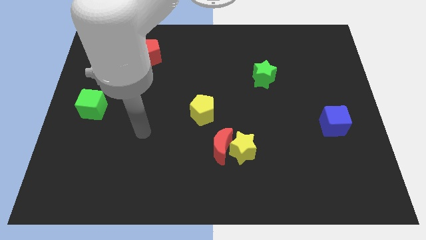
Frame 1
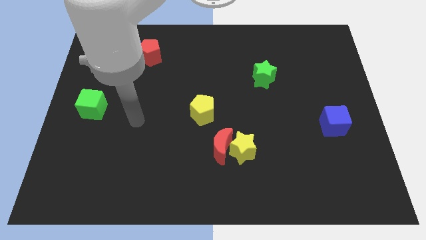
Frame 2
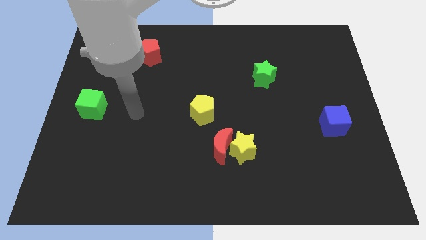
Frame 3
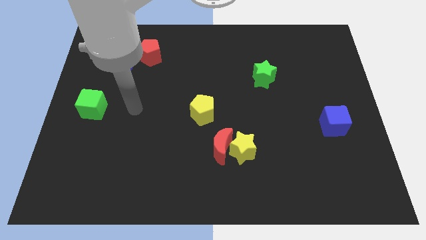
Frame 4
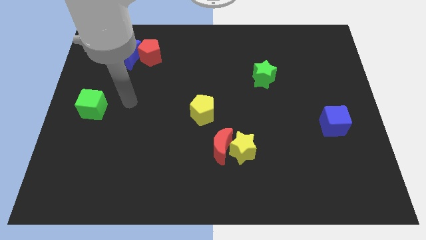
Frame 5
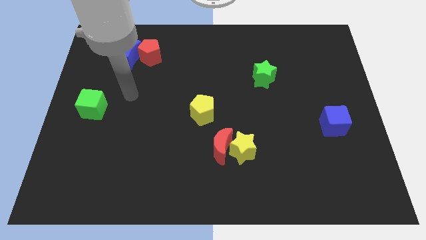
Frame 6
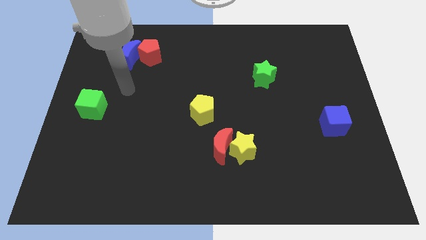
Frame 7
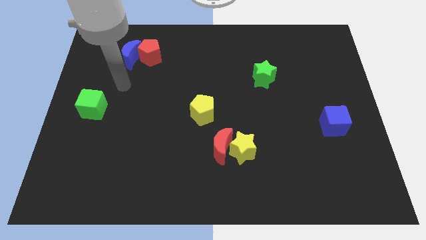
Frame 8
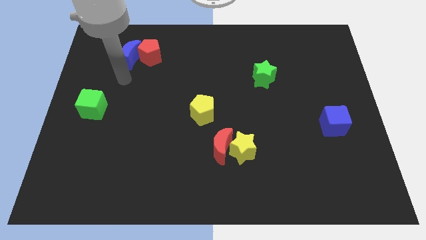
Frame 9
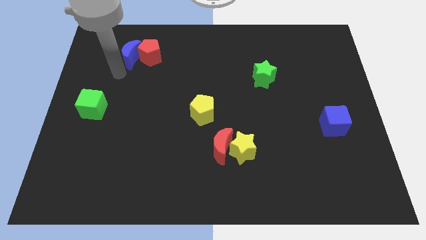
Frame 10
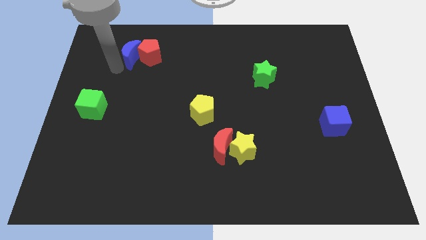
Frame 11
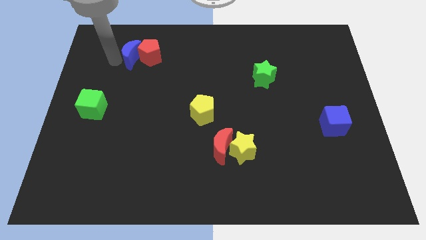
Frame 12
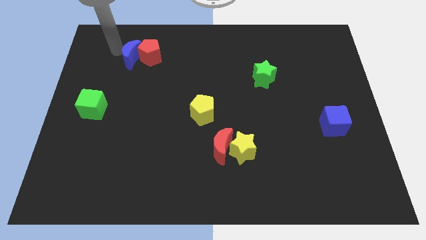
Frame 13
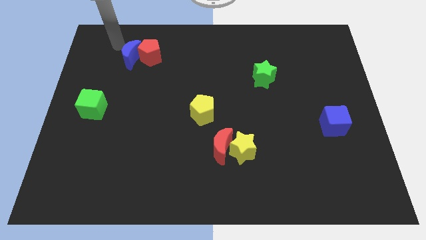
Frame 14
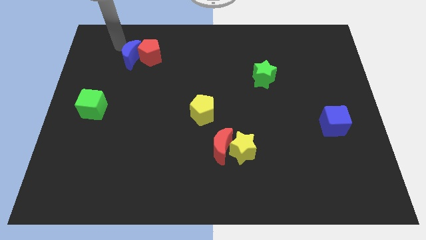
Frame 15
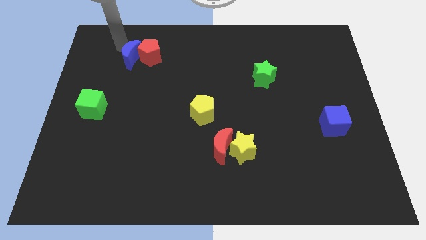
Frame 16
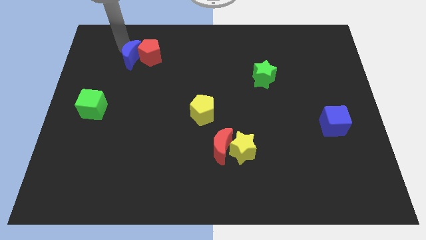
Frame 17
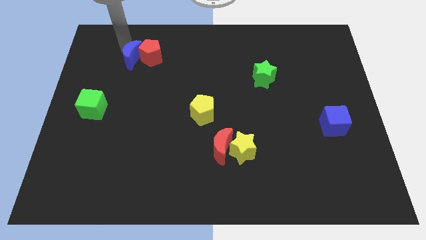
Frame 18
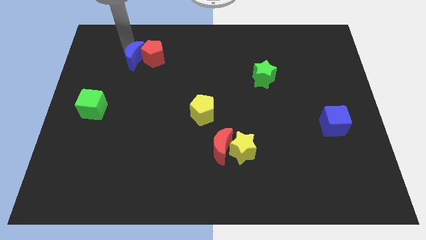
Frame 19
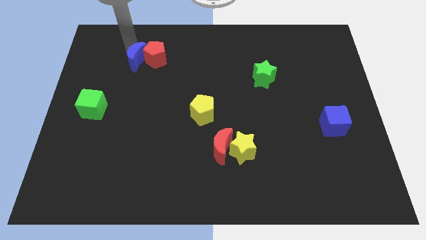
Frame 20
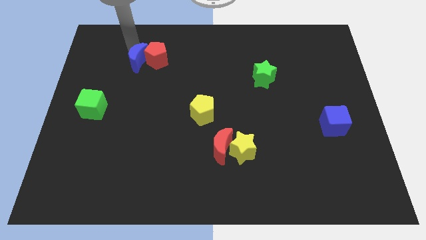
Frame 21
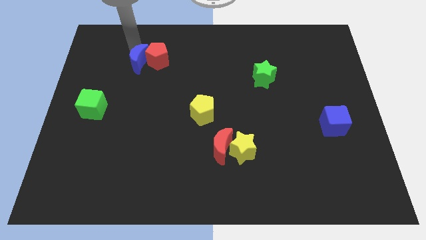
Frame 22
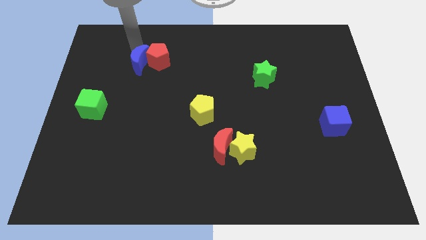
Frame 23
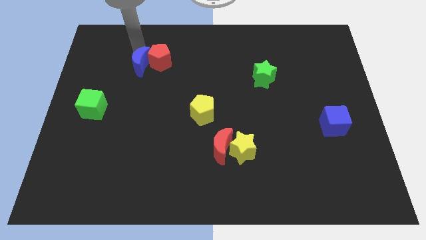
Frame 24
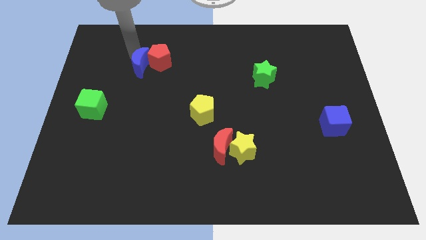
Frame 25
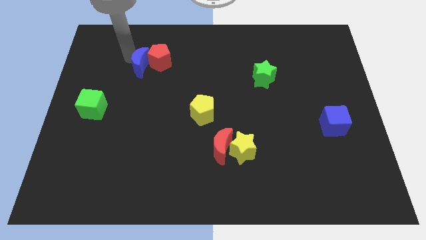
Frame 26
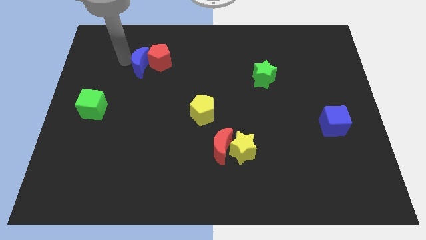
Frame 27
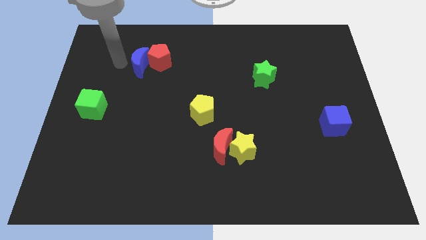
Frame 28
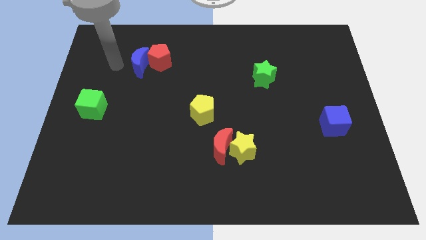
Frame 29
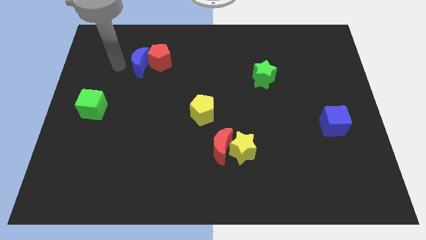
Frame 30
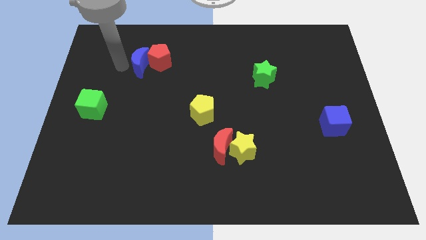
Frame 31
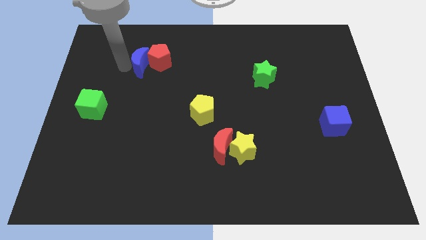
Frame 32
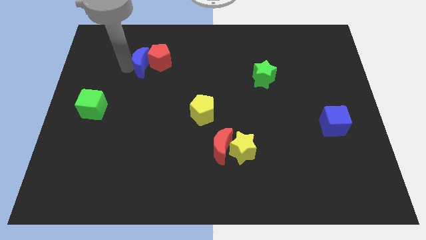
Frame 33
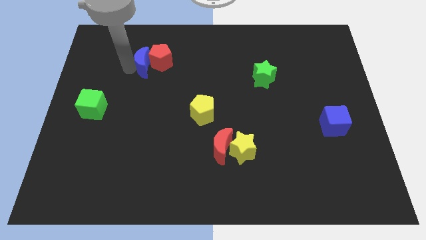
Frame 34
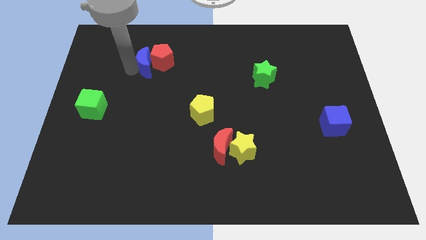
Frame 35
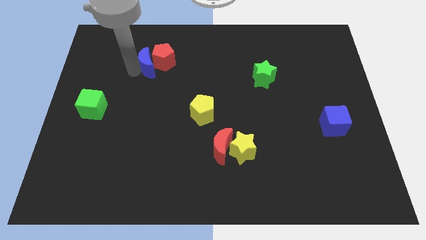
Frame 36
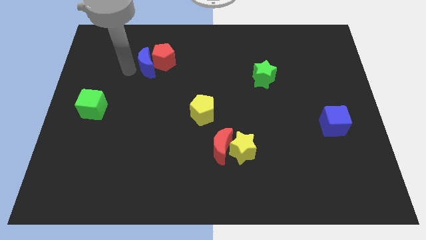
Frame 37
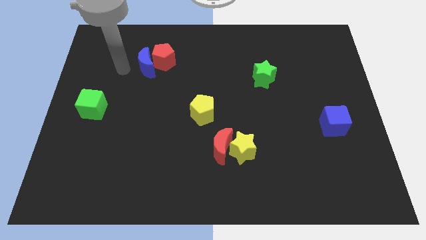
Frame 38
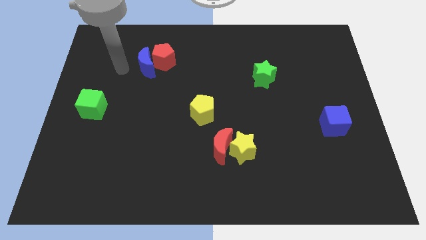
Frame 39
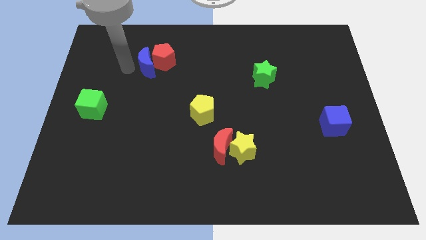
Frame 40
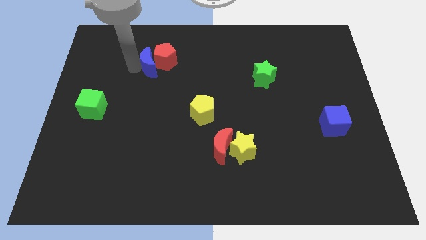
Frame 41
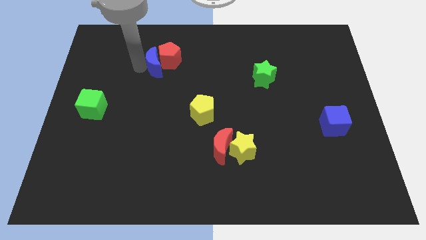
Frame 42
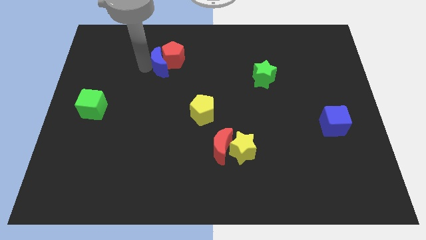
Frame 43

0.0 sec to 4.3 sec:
slightly slide the blue moon right

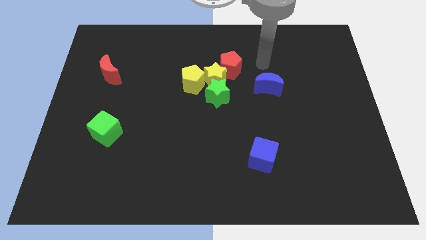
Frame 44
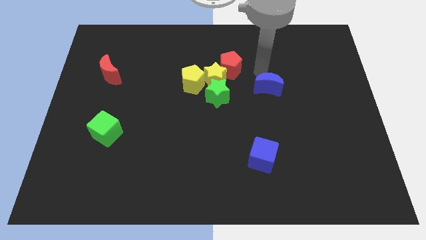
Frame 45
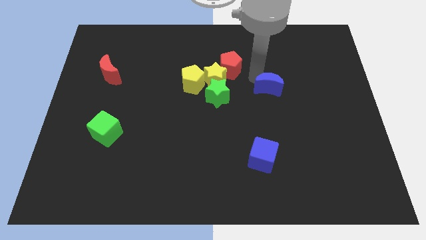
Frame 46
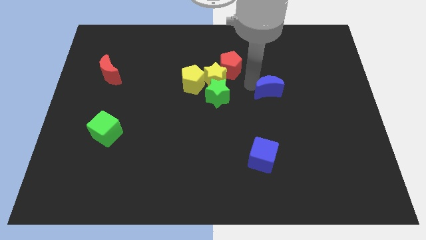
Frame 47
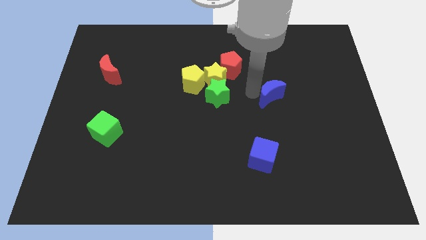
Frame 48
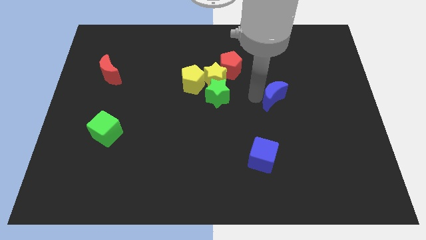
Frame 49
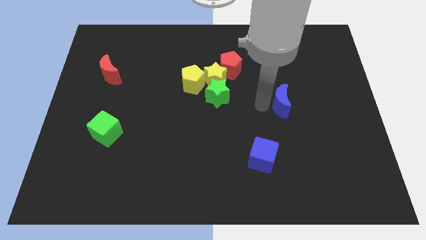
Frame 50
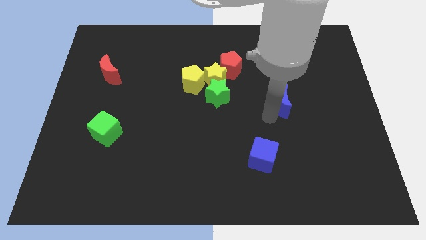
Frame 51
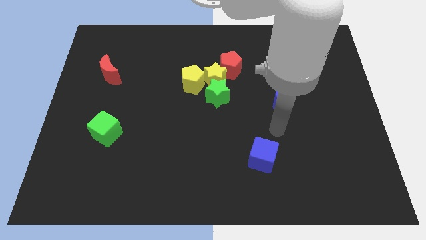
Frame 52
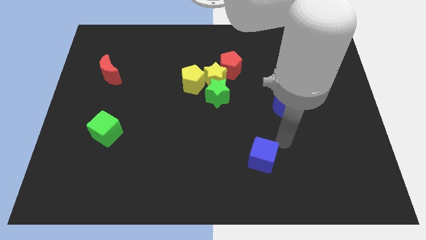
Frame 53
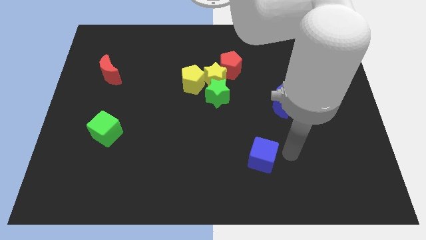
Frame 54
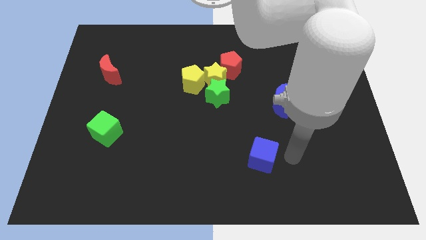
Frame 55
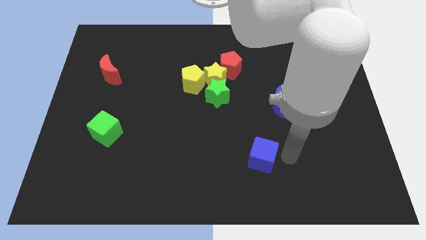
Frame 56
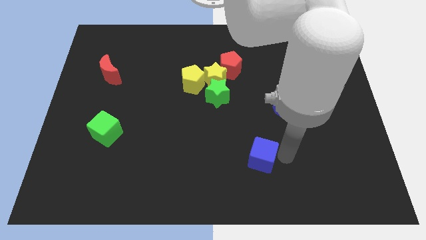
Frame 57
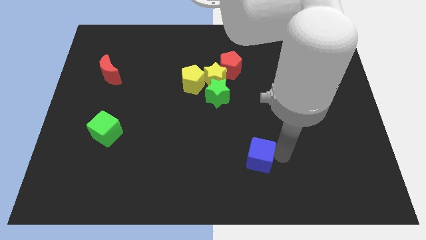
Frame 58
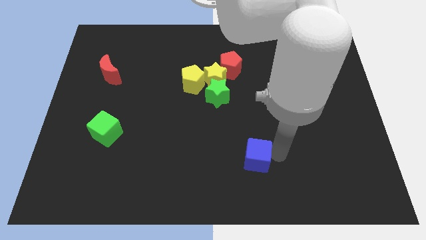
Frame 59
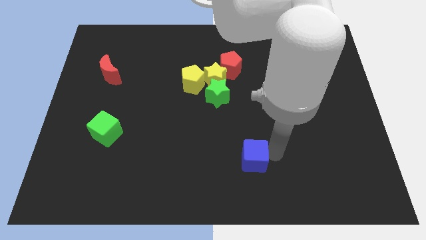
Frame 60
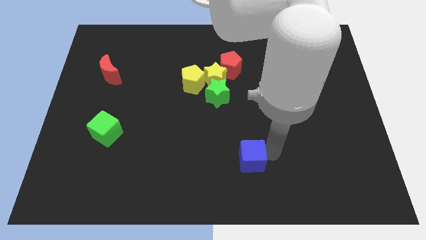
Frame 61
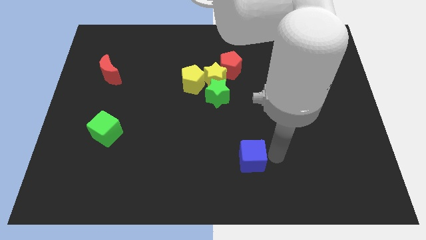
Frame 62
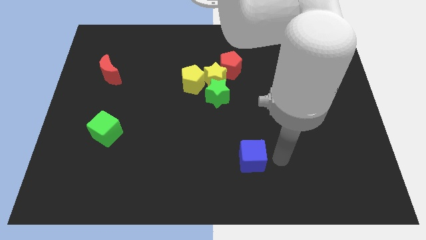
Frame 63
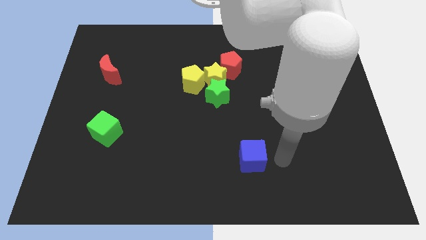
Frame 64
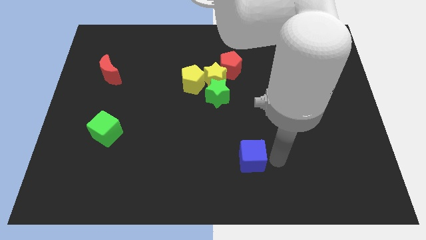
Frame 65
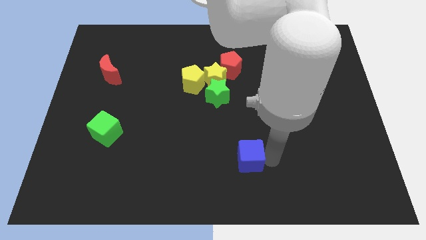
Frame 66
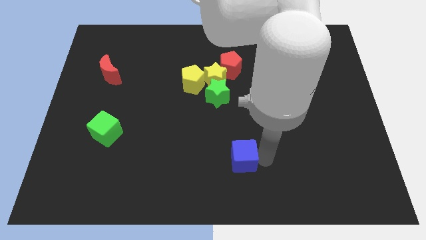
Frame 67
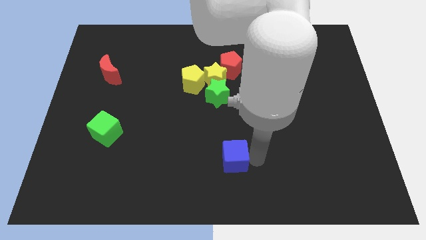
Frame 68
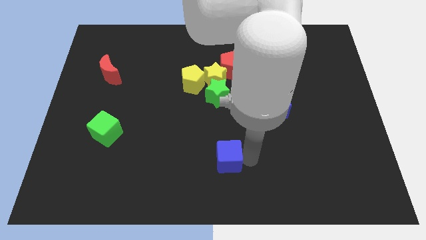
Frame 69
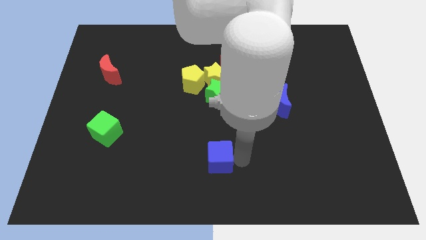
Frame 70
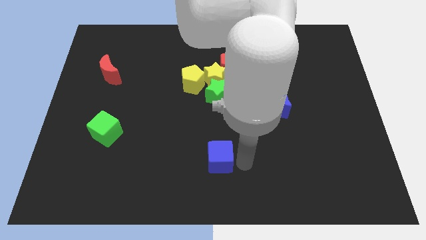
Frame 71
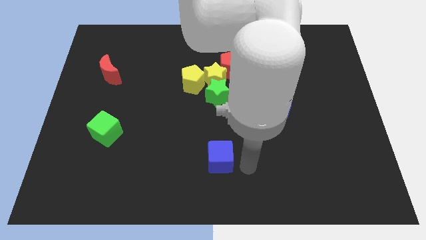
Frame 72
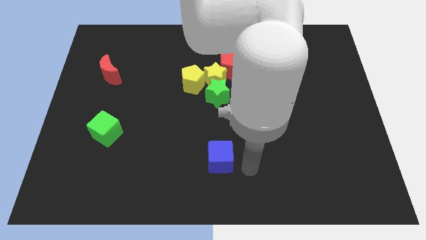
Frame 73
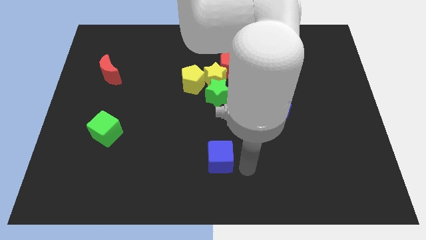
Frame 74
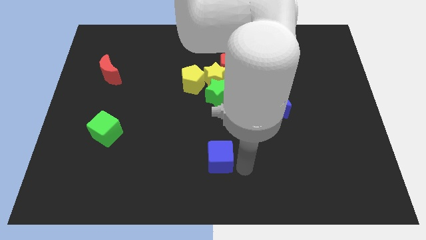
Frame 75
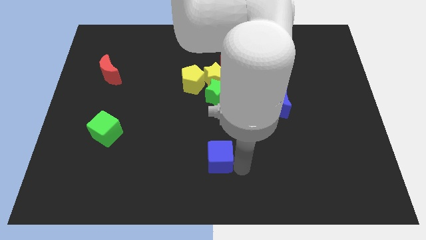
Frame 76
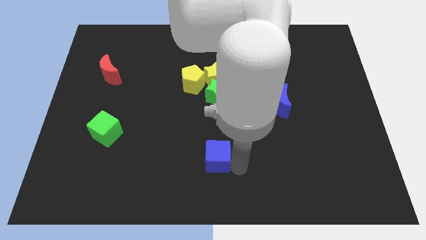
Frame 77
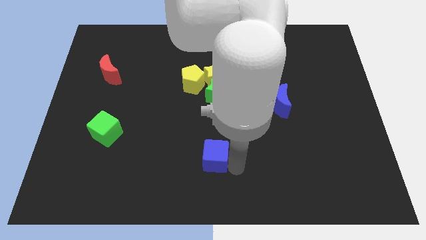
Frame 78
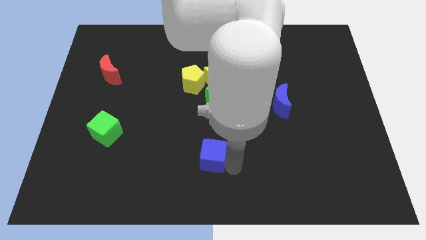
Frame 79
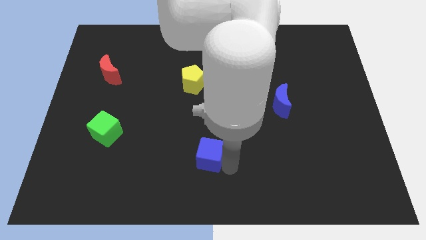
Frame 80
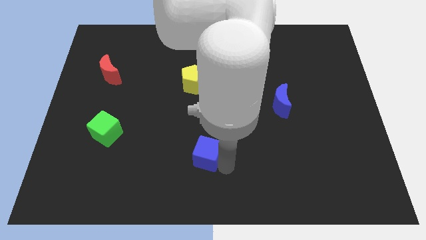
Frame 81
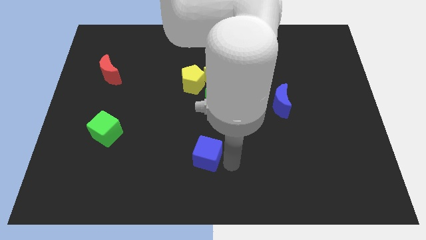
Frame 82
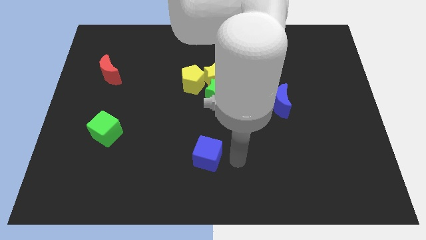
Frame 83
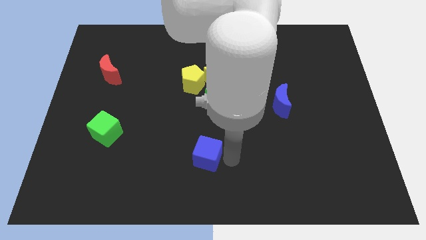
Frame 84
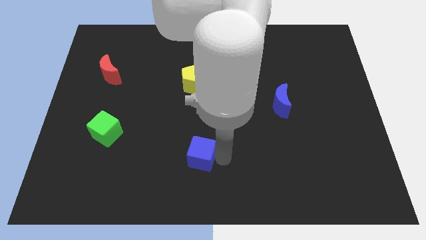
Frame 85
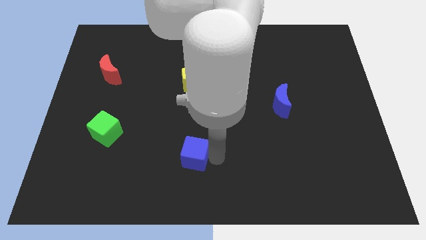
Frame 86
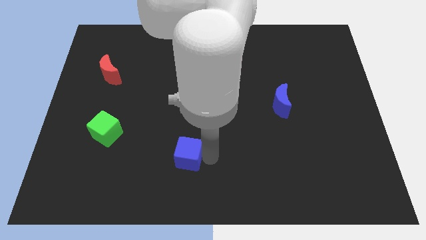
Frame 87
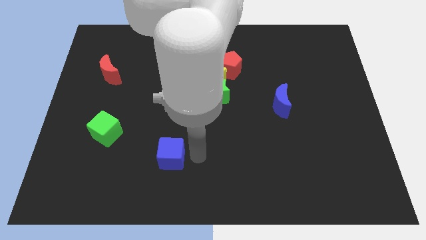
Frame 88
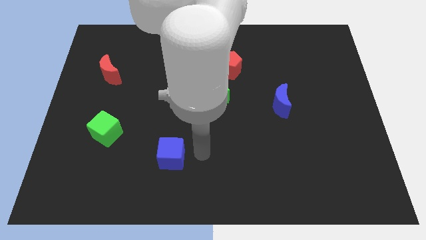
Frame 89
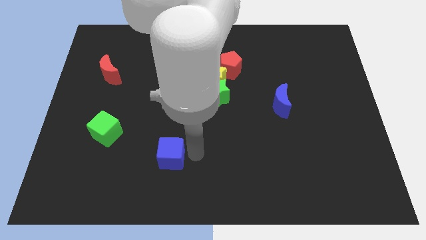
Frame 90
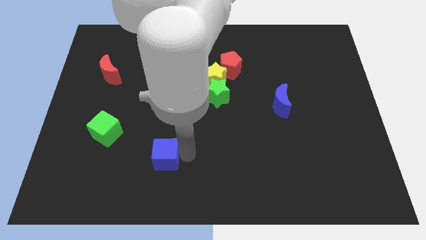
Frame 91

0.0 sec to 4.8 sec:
move the blue cube left
